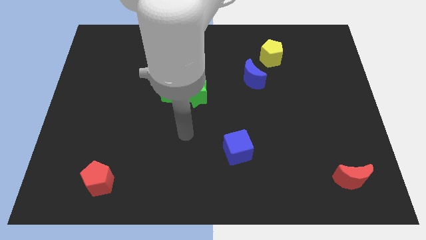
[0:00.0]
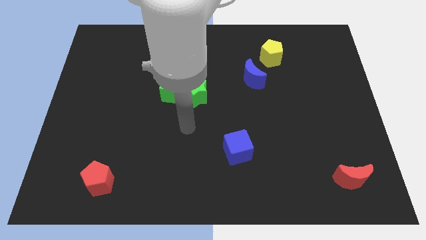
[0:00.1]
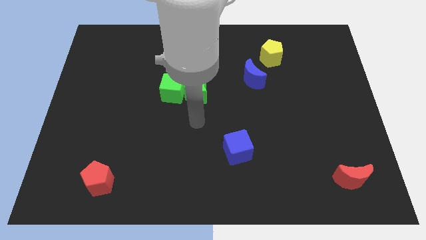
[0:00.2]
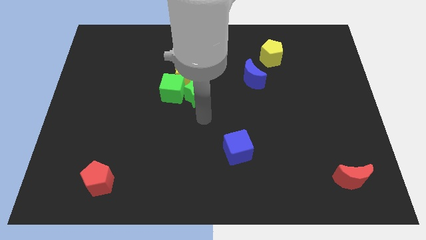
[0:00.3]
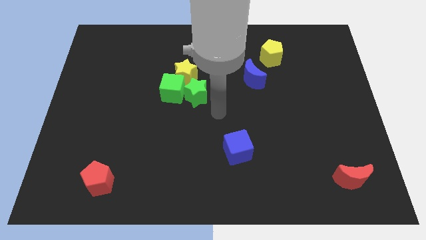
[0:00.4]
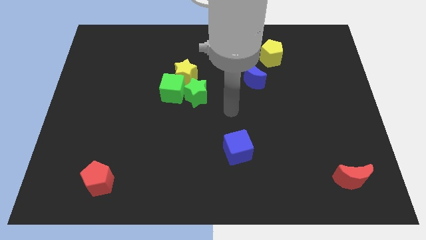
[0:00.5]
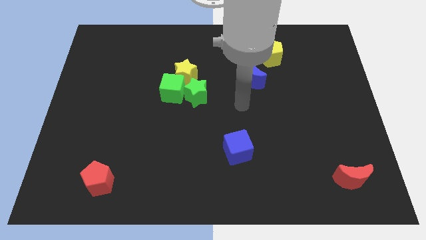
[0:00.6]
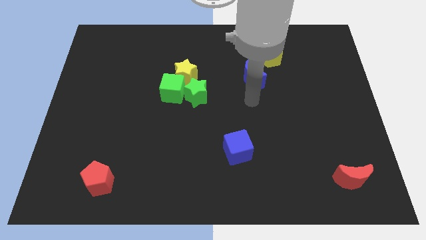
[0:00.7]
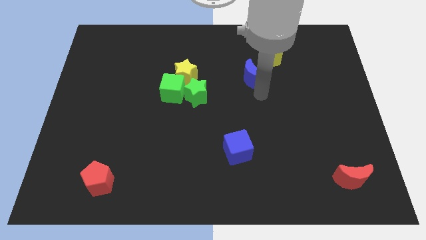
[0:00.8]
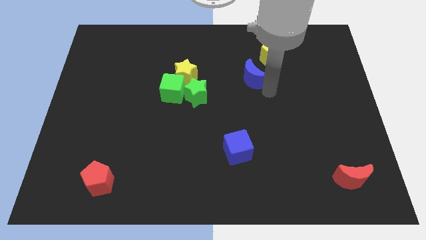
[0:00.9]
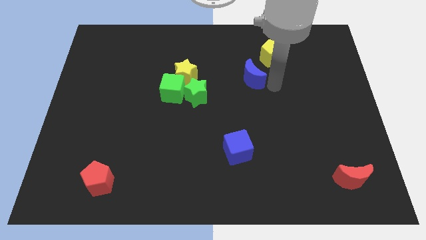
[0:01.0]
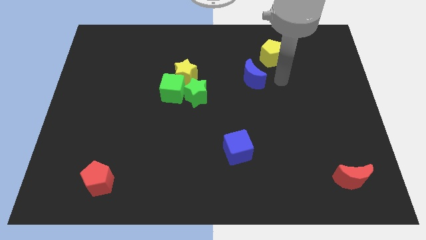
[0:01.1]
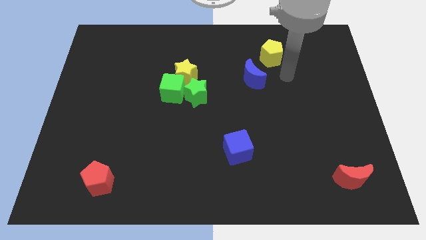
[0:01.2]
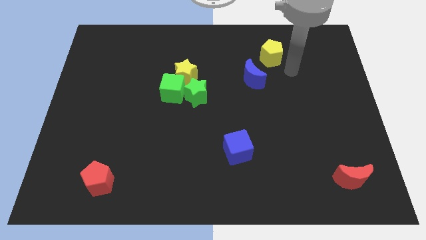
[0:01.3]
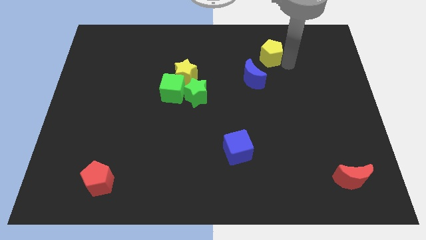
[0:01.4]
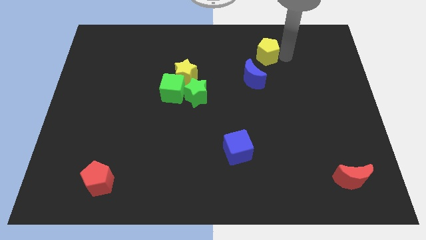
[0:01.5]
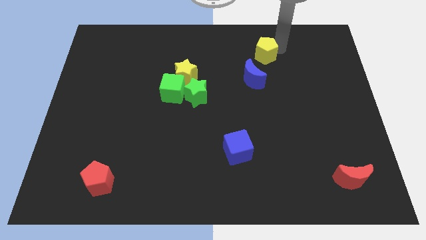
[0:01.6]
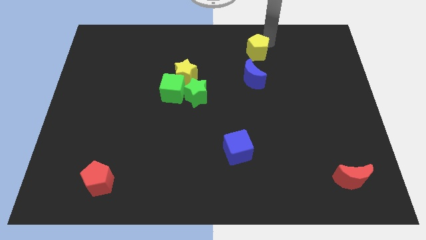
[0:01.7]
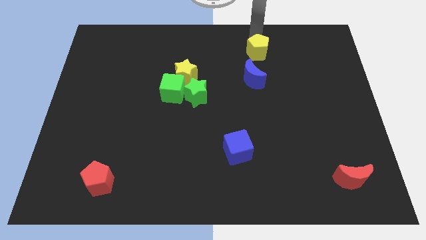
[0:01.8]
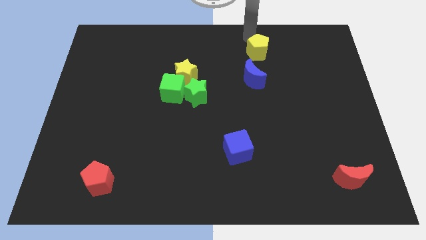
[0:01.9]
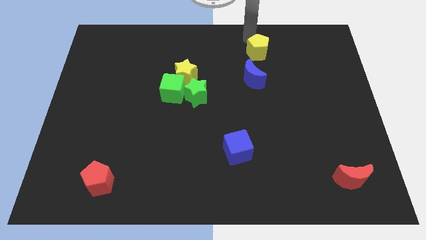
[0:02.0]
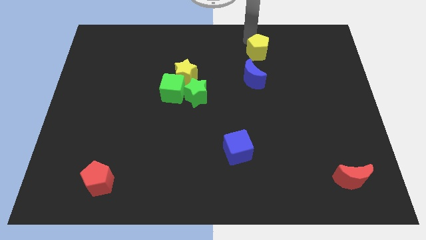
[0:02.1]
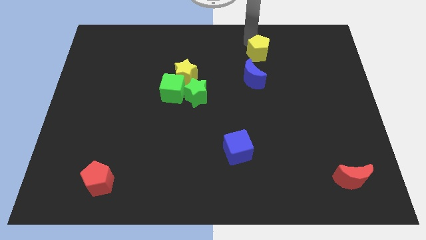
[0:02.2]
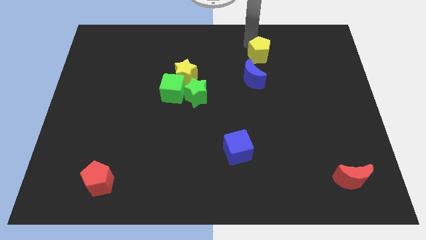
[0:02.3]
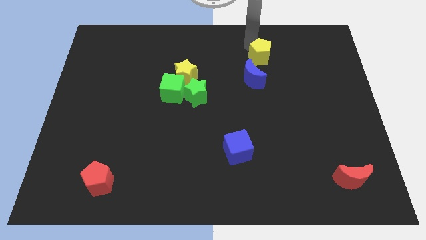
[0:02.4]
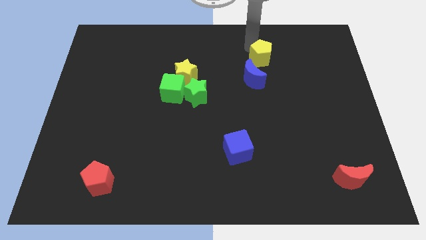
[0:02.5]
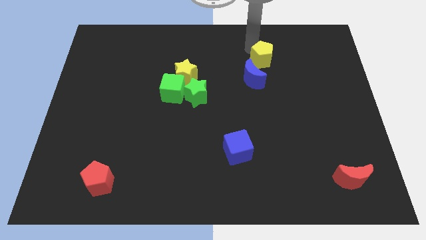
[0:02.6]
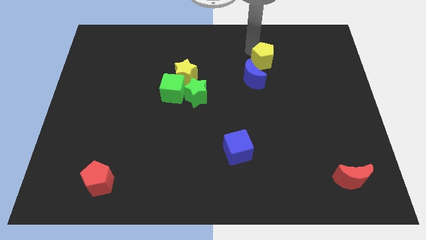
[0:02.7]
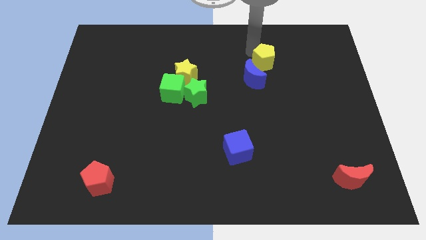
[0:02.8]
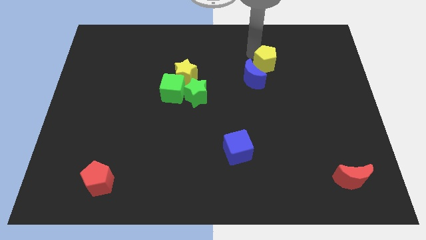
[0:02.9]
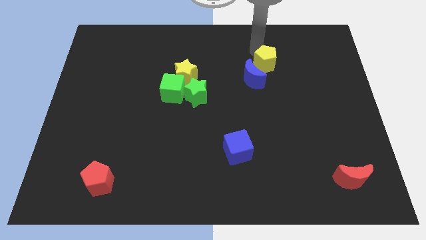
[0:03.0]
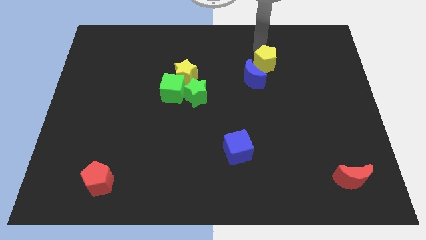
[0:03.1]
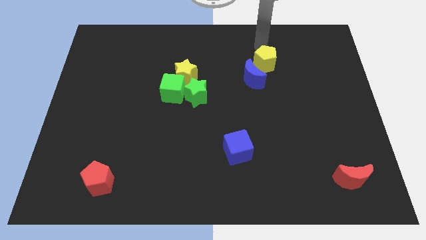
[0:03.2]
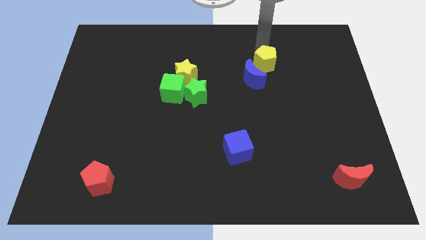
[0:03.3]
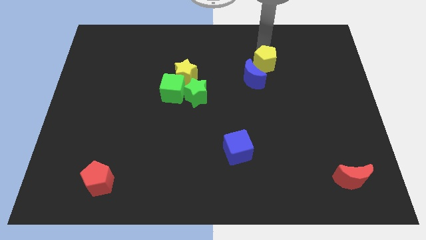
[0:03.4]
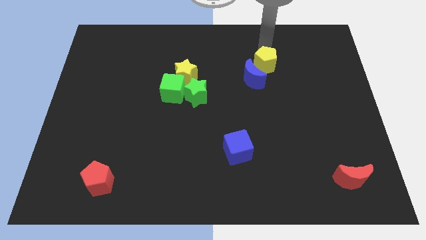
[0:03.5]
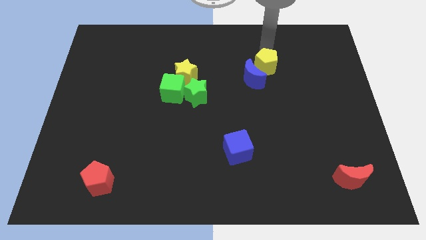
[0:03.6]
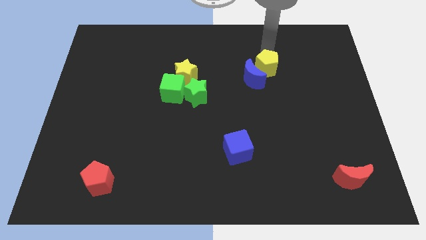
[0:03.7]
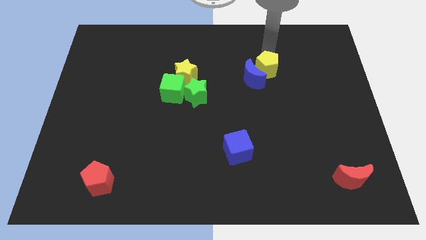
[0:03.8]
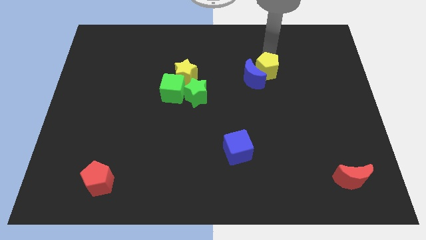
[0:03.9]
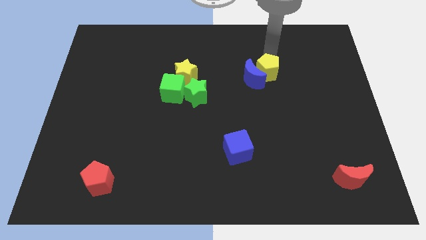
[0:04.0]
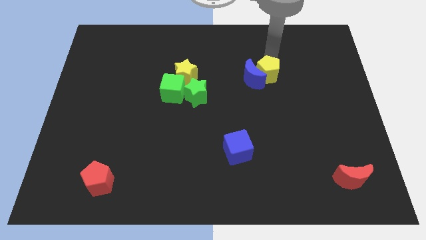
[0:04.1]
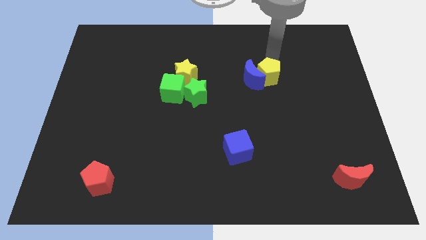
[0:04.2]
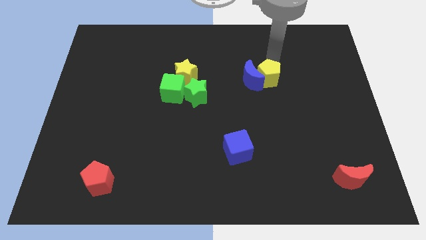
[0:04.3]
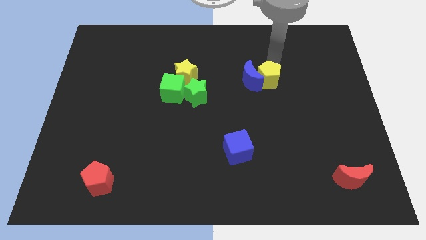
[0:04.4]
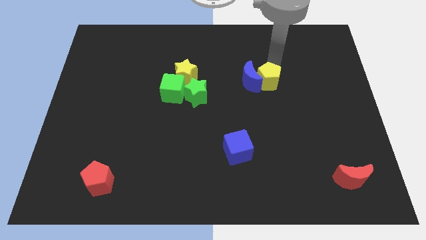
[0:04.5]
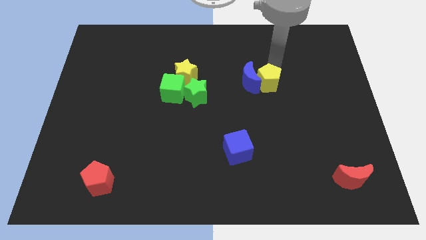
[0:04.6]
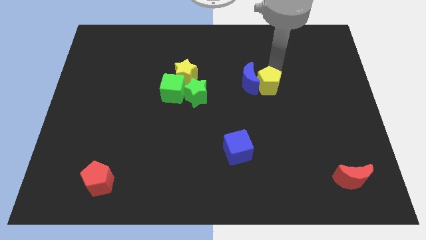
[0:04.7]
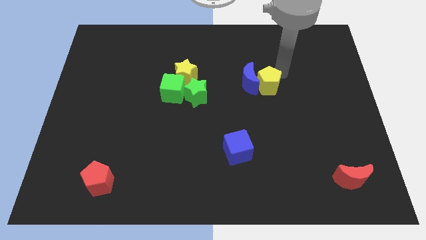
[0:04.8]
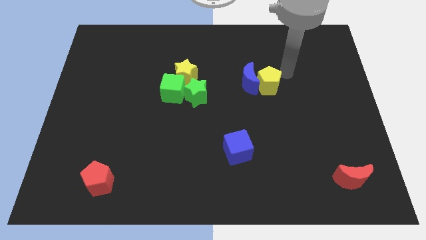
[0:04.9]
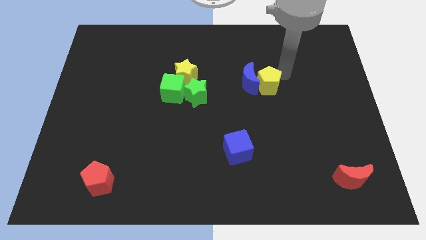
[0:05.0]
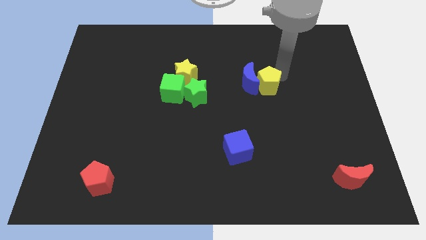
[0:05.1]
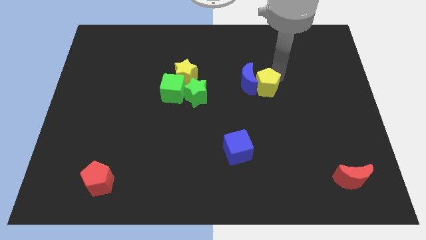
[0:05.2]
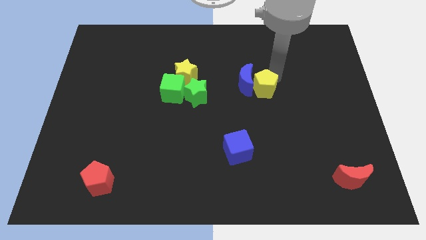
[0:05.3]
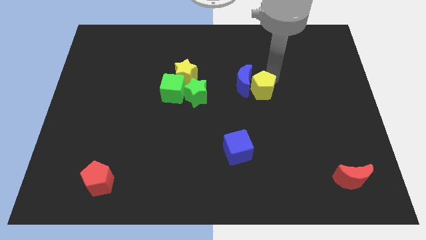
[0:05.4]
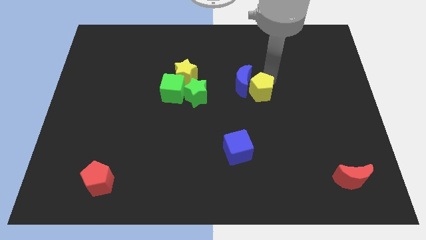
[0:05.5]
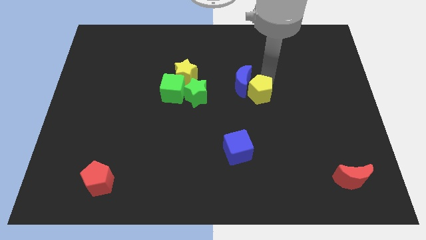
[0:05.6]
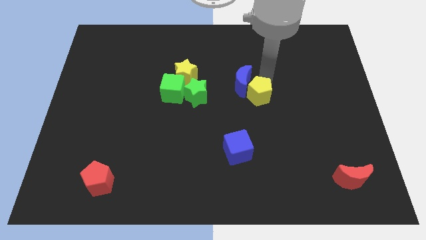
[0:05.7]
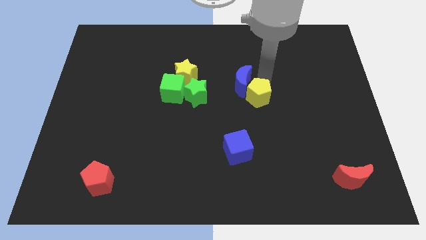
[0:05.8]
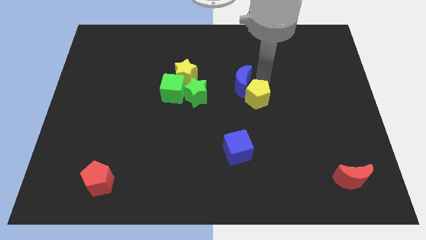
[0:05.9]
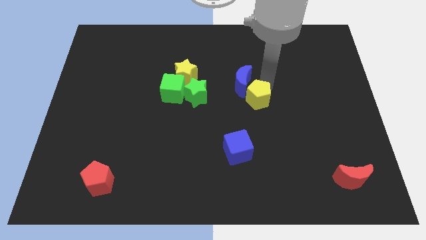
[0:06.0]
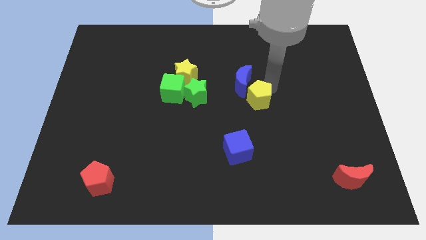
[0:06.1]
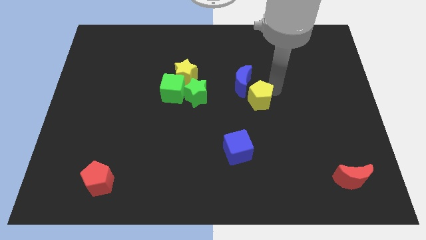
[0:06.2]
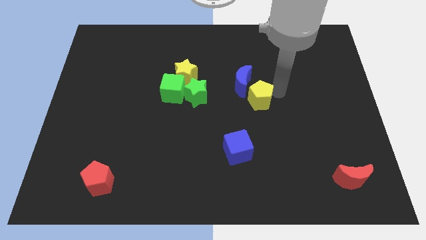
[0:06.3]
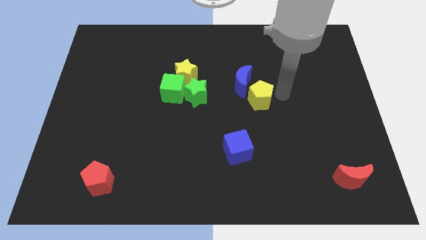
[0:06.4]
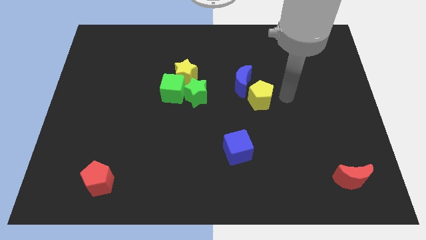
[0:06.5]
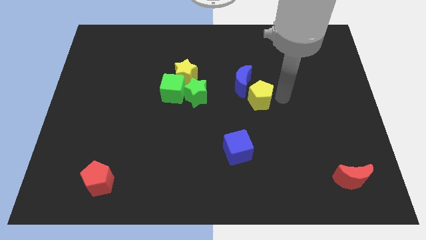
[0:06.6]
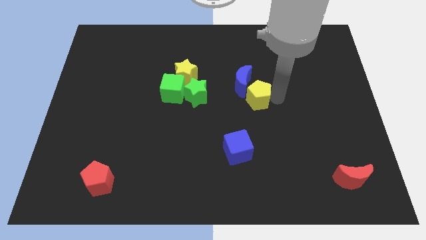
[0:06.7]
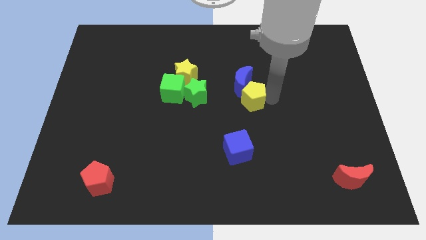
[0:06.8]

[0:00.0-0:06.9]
slide the yellow pentagon to the top of the blue cube

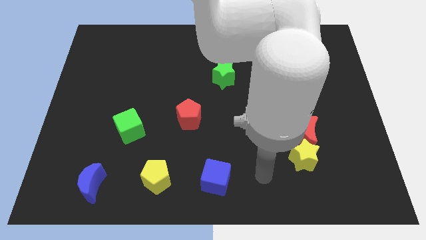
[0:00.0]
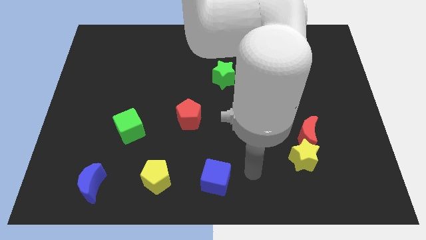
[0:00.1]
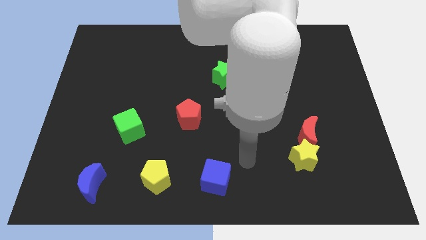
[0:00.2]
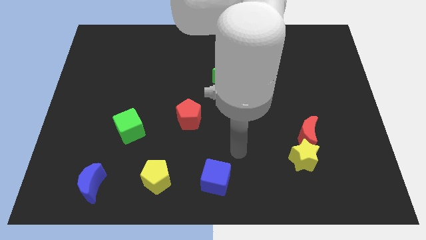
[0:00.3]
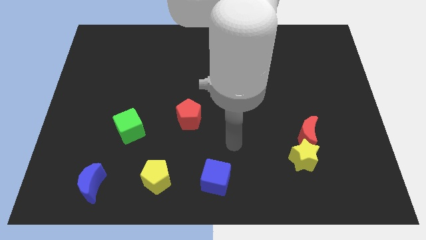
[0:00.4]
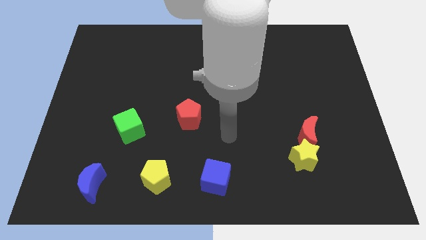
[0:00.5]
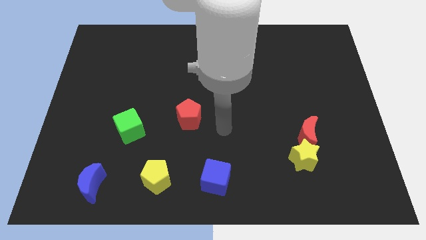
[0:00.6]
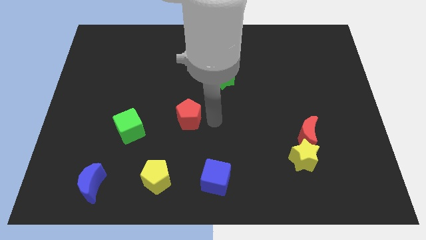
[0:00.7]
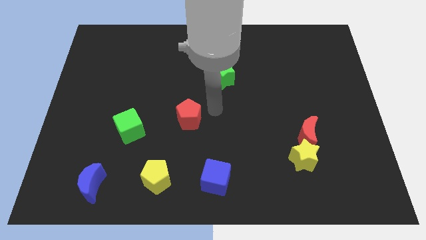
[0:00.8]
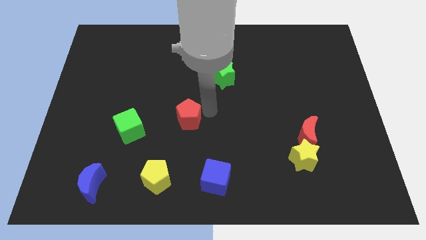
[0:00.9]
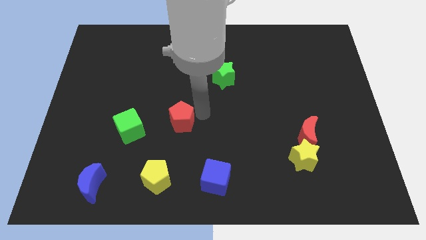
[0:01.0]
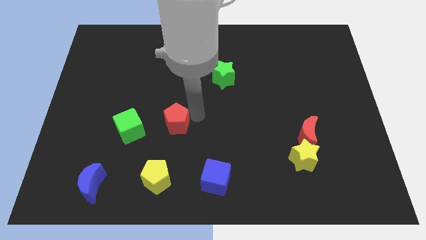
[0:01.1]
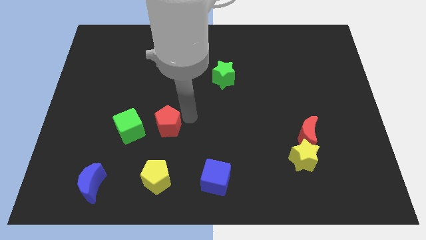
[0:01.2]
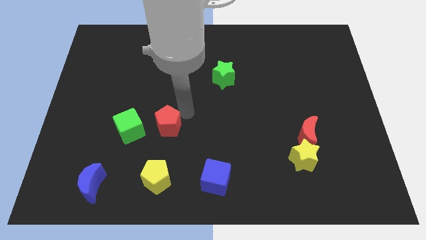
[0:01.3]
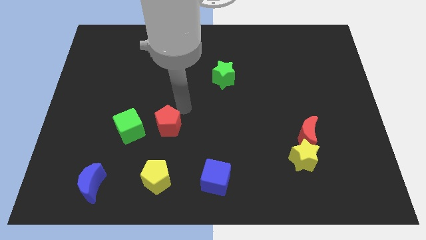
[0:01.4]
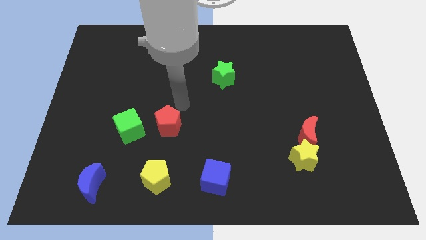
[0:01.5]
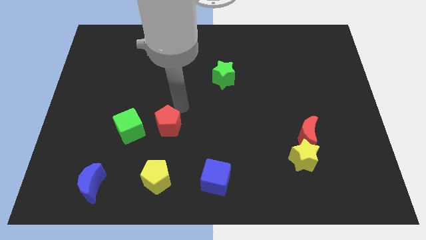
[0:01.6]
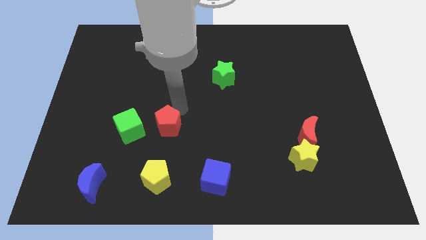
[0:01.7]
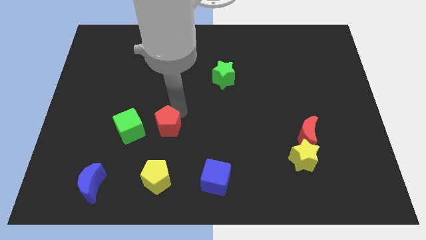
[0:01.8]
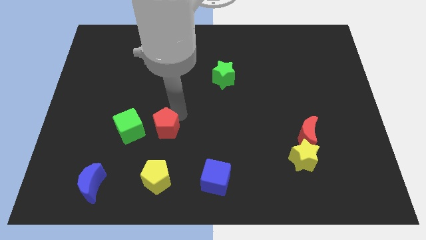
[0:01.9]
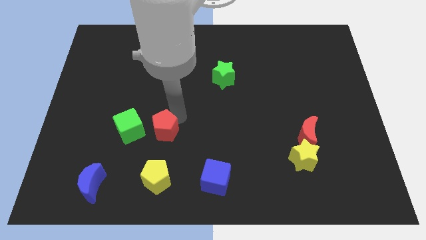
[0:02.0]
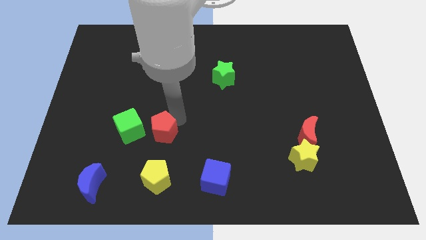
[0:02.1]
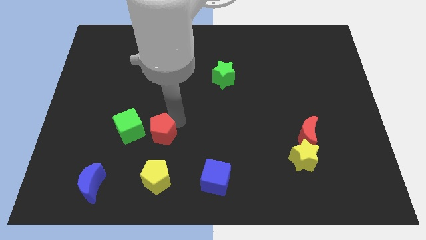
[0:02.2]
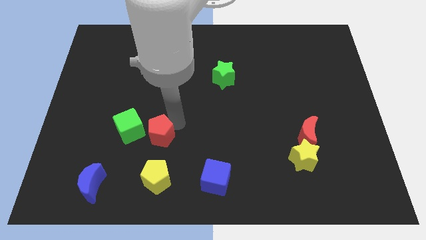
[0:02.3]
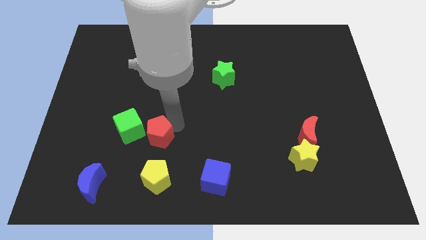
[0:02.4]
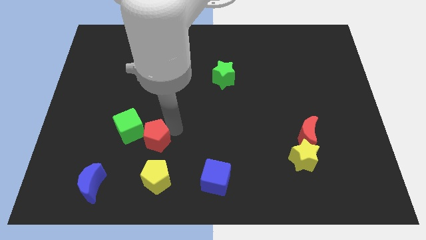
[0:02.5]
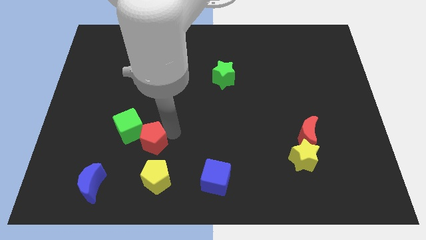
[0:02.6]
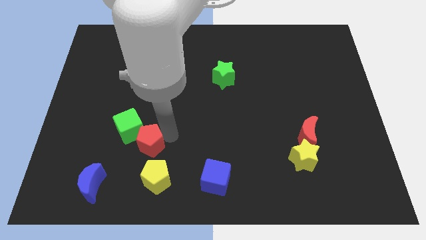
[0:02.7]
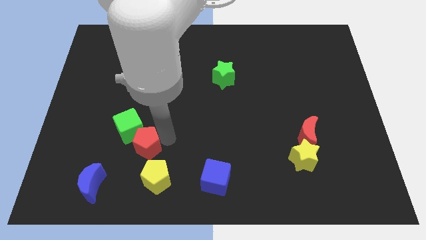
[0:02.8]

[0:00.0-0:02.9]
move the red pentagon to the bottom of the green cube
